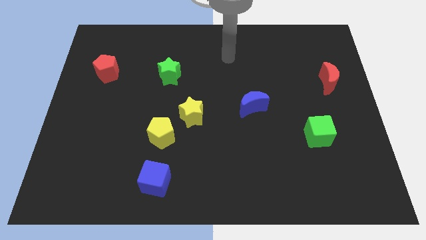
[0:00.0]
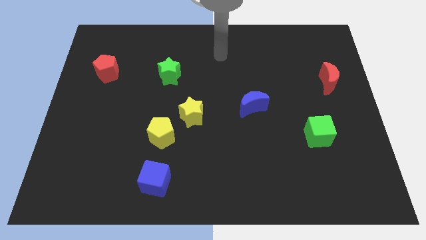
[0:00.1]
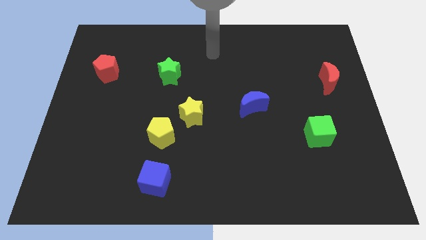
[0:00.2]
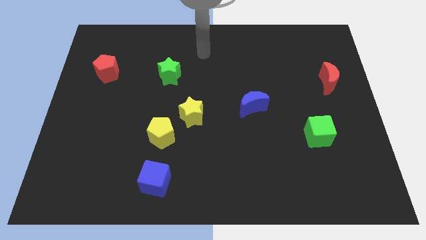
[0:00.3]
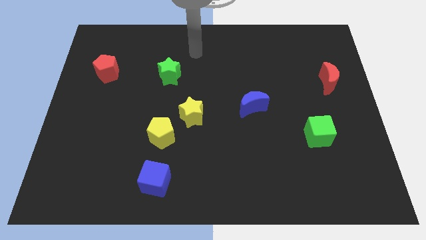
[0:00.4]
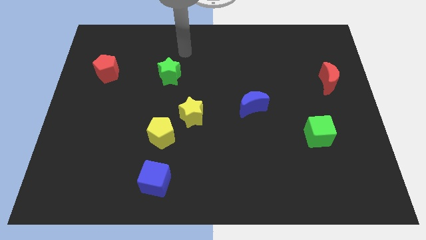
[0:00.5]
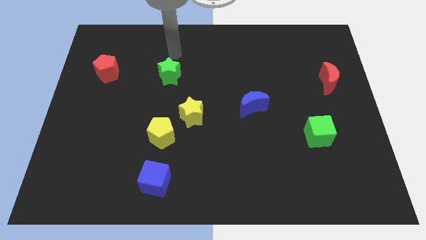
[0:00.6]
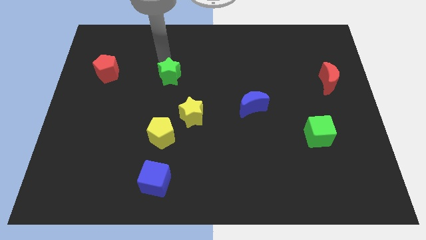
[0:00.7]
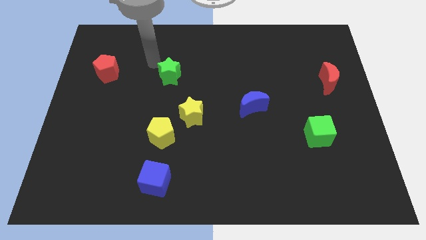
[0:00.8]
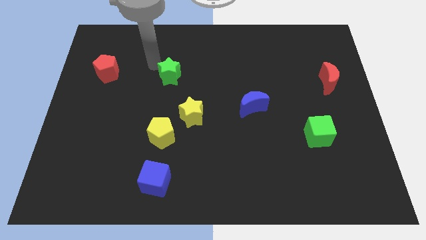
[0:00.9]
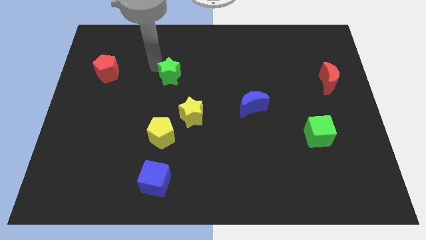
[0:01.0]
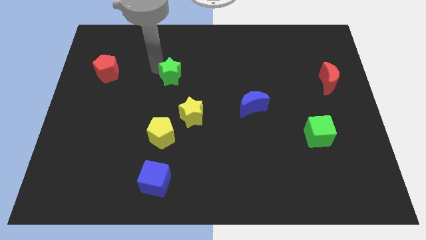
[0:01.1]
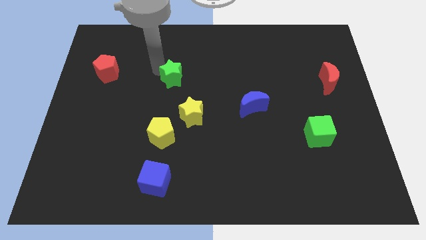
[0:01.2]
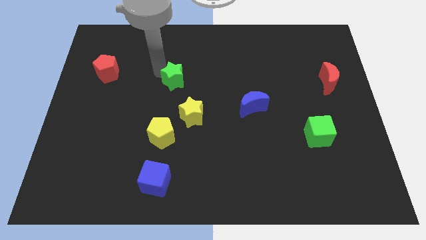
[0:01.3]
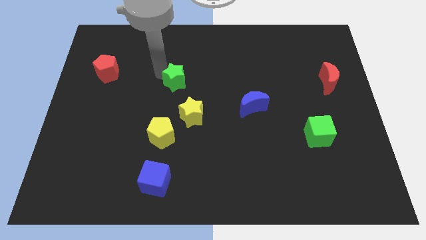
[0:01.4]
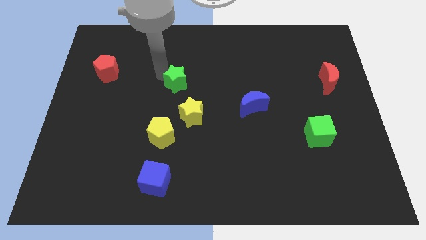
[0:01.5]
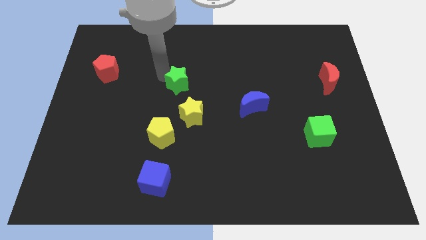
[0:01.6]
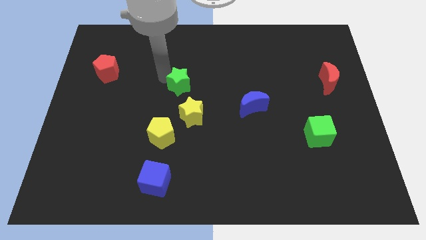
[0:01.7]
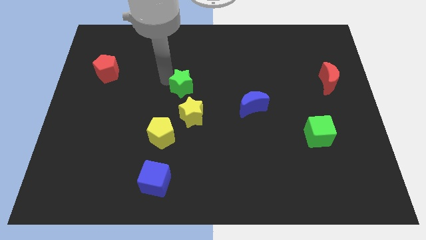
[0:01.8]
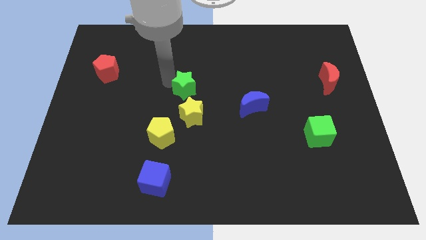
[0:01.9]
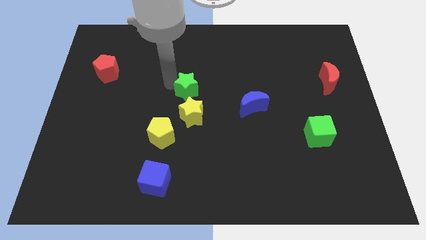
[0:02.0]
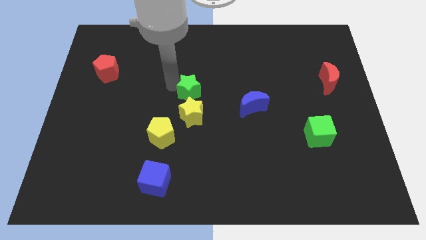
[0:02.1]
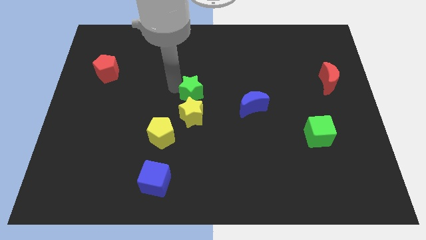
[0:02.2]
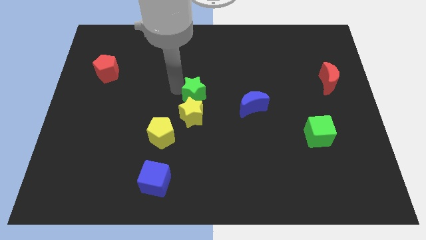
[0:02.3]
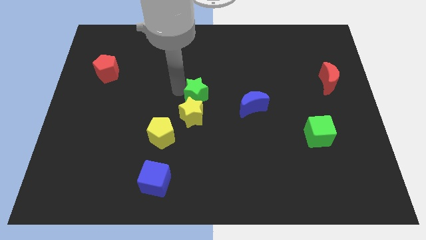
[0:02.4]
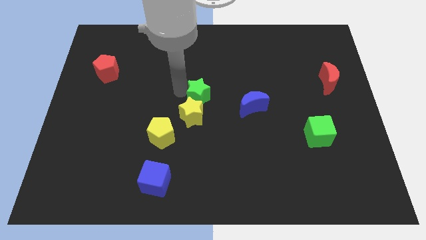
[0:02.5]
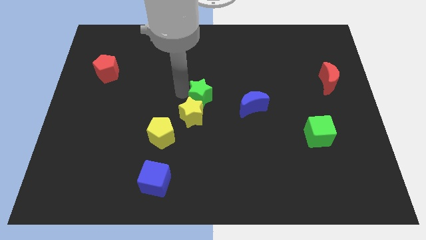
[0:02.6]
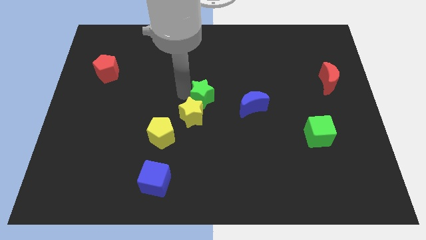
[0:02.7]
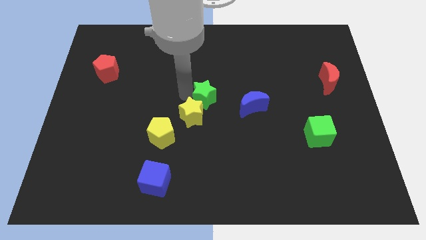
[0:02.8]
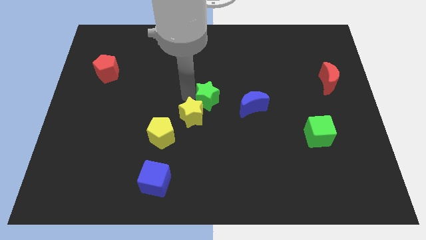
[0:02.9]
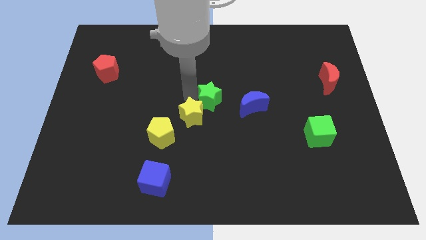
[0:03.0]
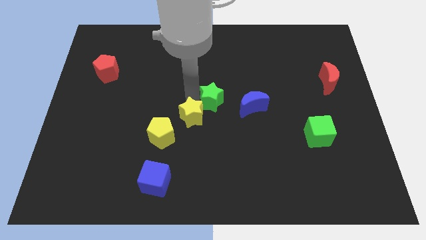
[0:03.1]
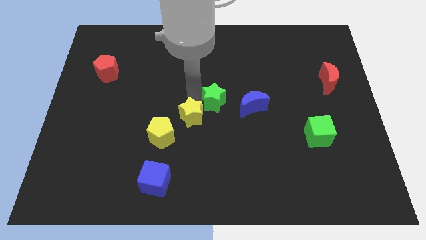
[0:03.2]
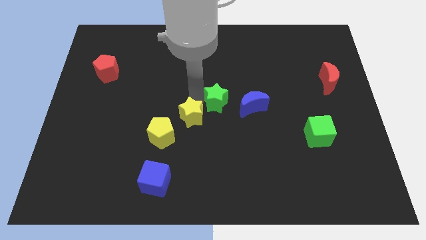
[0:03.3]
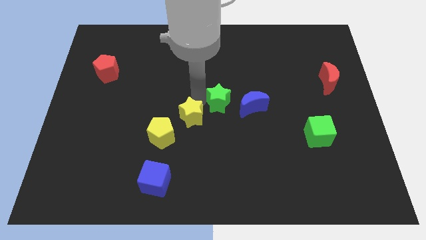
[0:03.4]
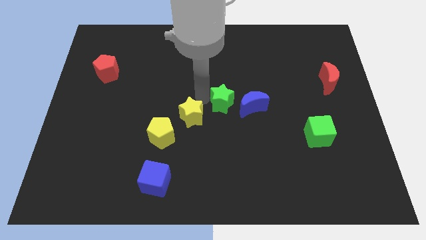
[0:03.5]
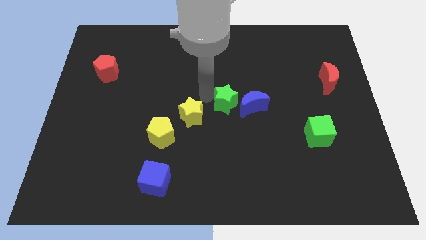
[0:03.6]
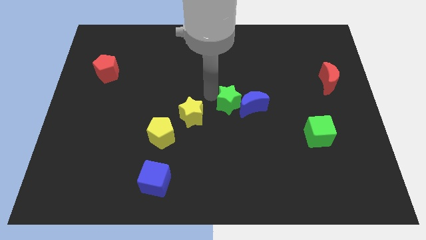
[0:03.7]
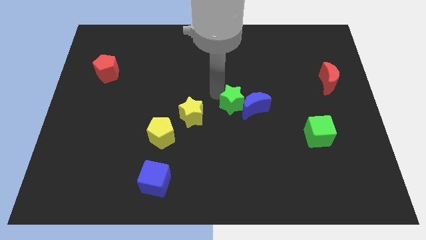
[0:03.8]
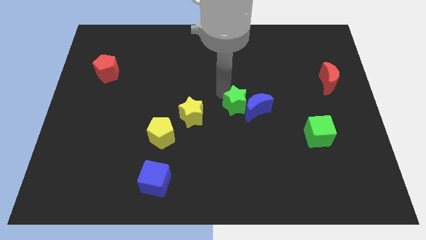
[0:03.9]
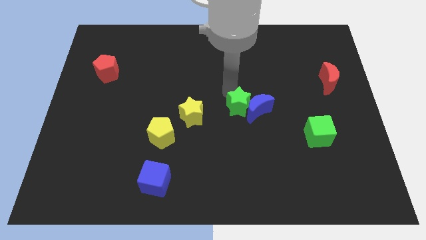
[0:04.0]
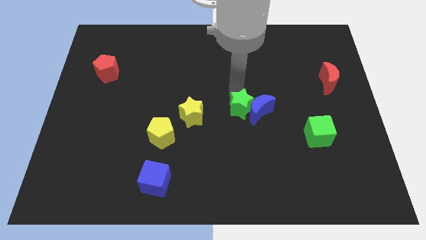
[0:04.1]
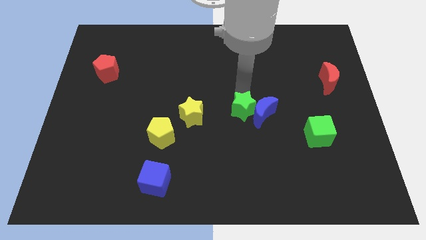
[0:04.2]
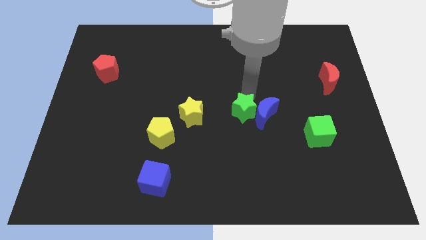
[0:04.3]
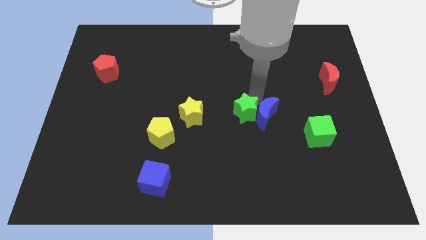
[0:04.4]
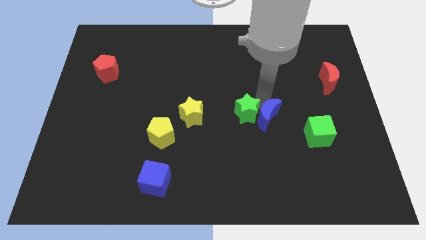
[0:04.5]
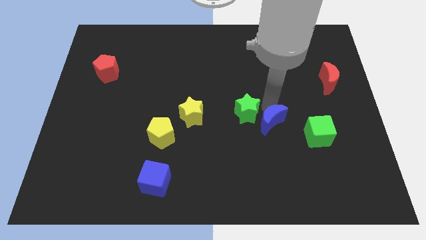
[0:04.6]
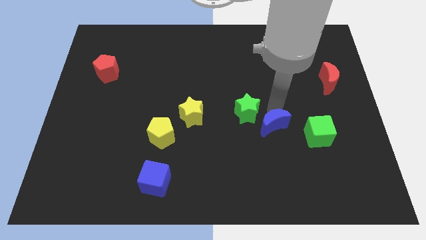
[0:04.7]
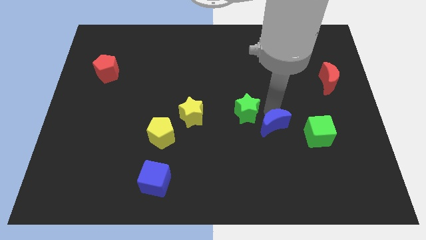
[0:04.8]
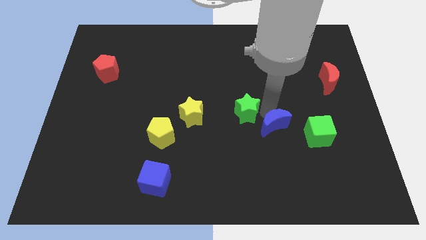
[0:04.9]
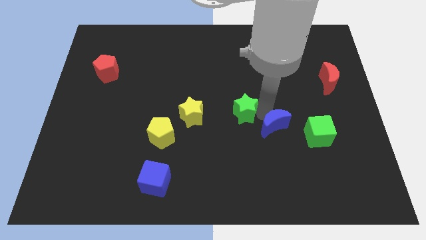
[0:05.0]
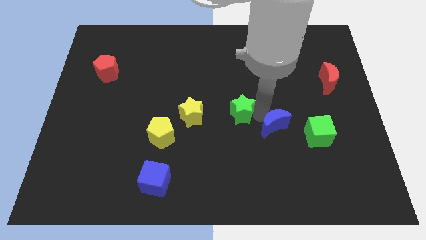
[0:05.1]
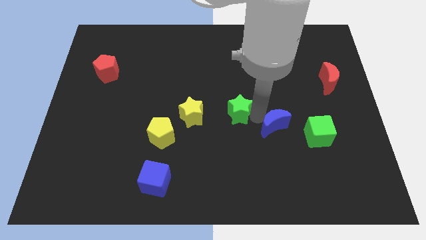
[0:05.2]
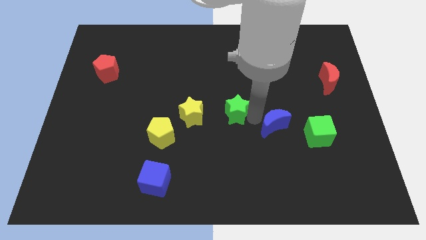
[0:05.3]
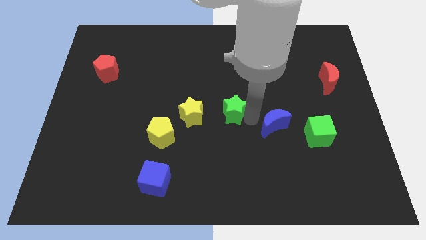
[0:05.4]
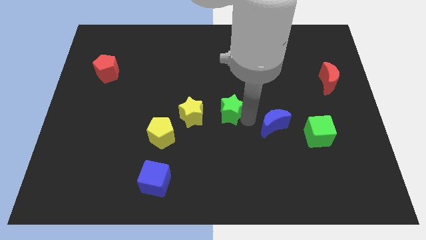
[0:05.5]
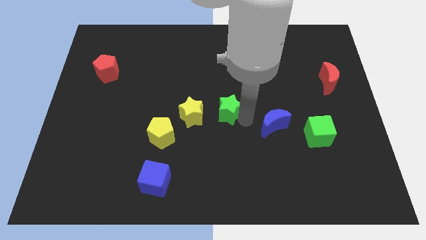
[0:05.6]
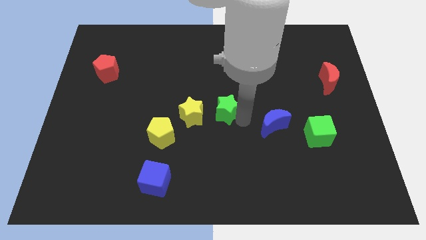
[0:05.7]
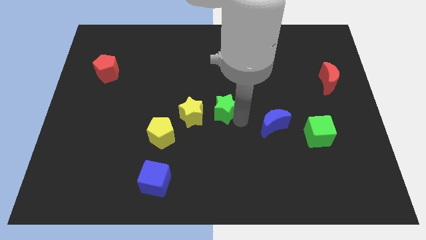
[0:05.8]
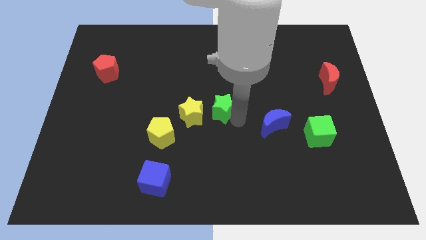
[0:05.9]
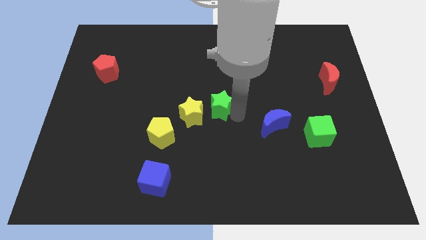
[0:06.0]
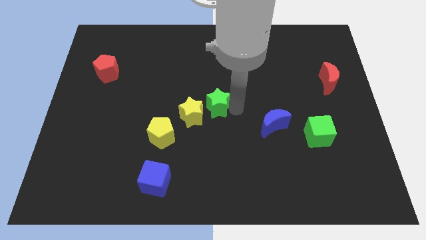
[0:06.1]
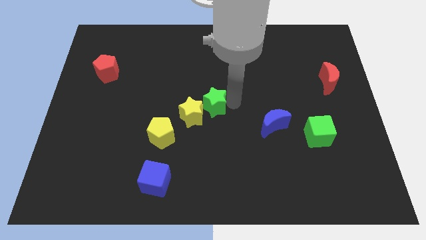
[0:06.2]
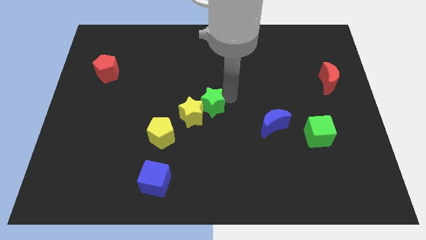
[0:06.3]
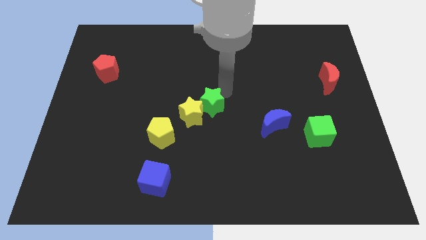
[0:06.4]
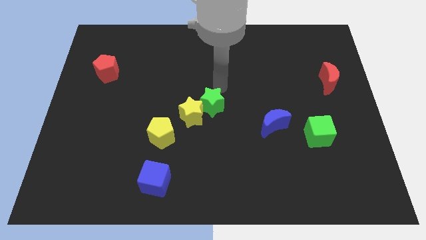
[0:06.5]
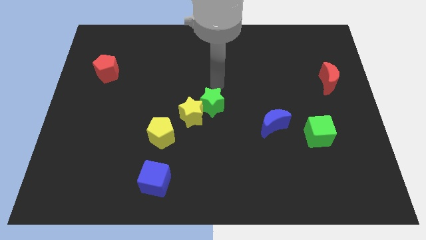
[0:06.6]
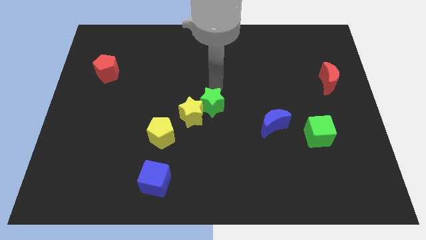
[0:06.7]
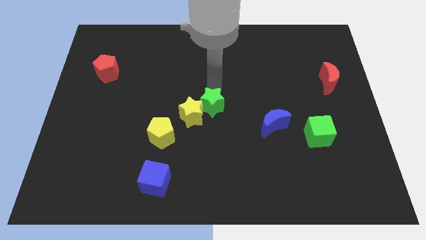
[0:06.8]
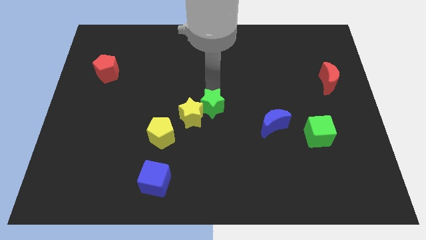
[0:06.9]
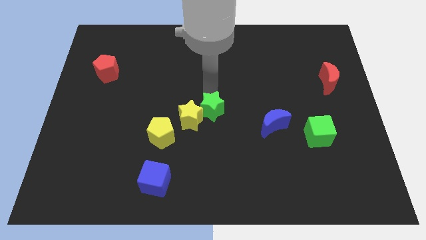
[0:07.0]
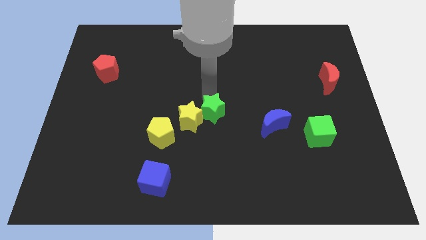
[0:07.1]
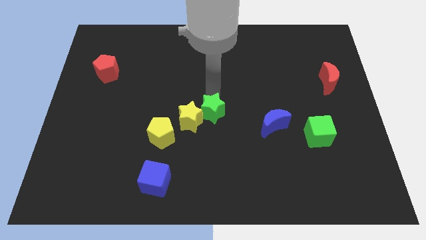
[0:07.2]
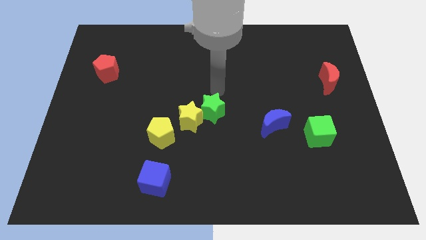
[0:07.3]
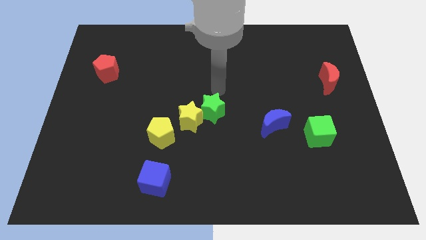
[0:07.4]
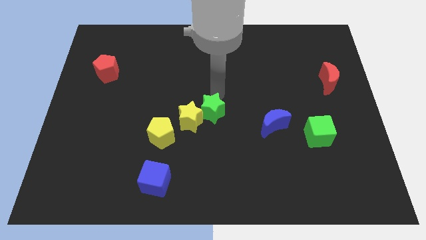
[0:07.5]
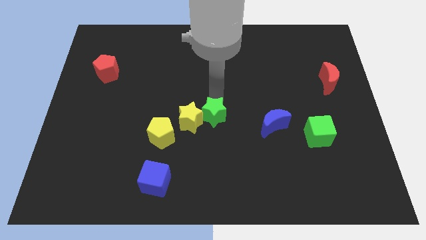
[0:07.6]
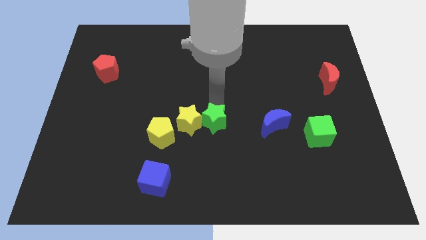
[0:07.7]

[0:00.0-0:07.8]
move the green star to the right of the yellow pentagon
